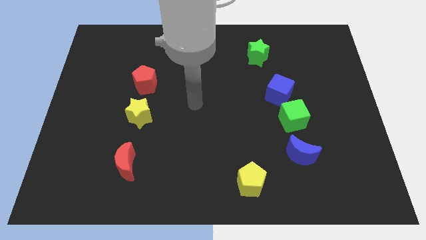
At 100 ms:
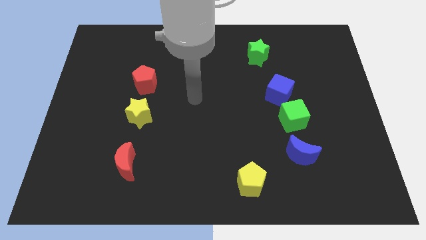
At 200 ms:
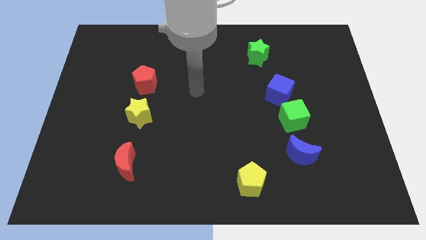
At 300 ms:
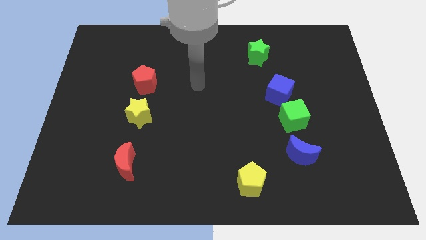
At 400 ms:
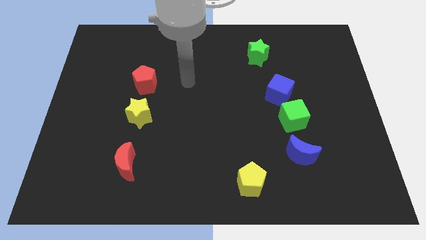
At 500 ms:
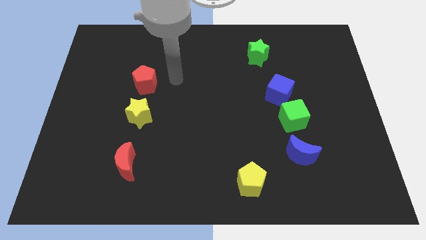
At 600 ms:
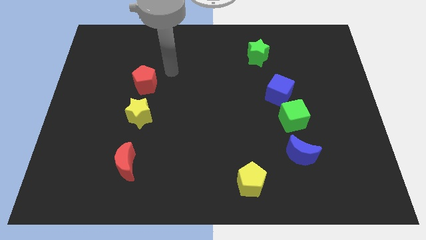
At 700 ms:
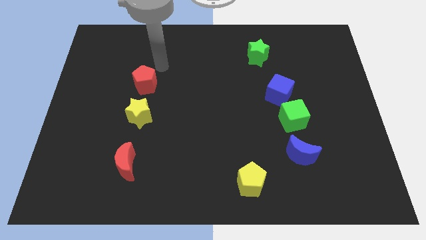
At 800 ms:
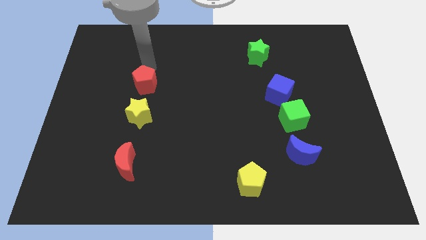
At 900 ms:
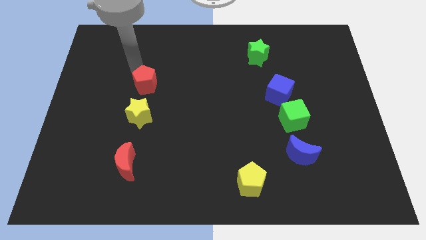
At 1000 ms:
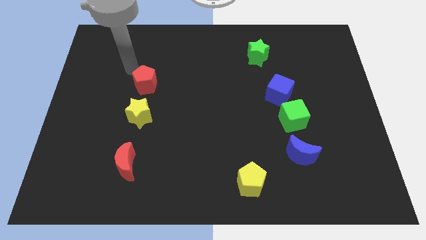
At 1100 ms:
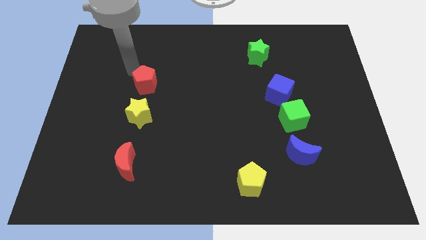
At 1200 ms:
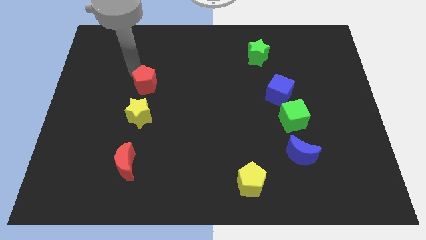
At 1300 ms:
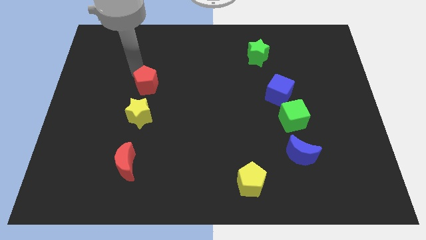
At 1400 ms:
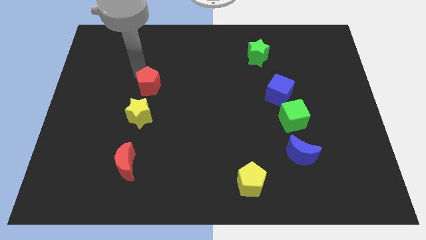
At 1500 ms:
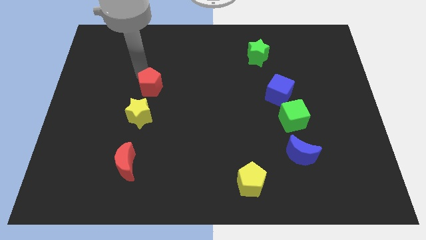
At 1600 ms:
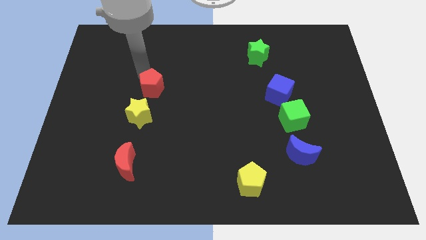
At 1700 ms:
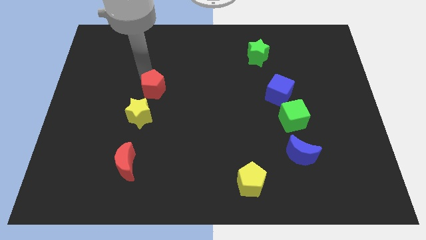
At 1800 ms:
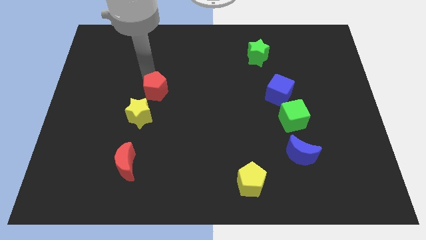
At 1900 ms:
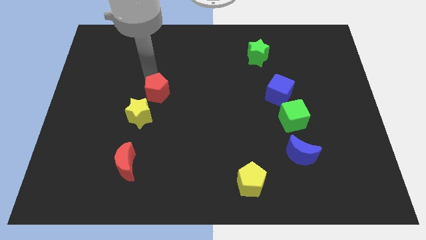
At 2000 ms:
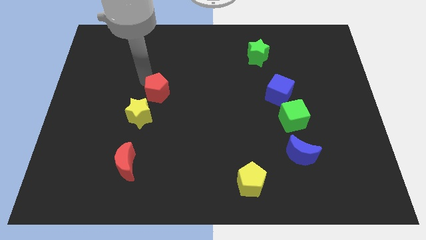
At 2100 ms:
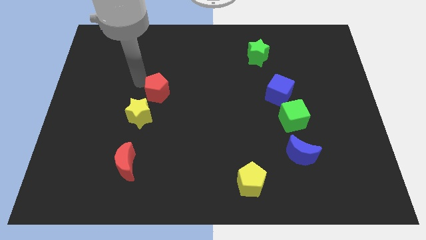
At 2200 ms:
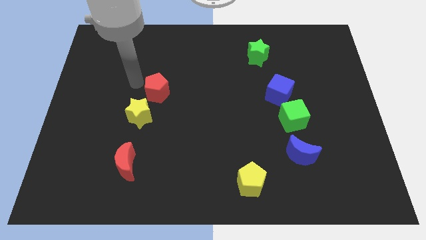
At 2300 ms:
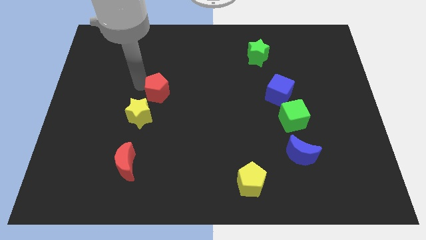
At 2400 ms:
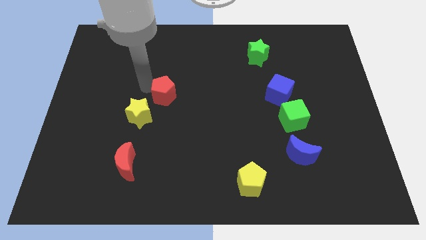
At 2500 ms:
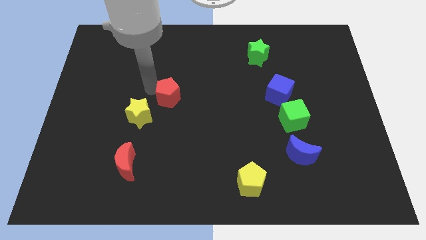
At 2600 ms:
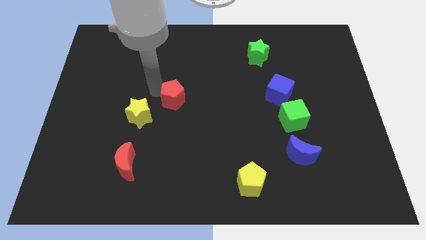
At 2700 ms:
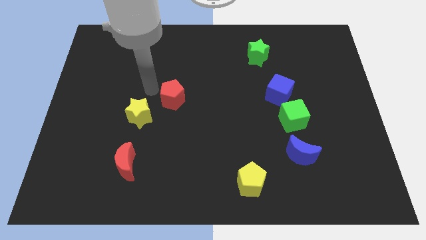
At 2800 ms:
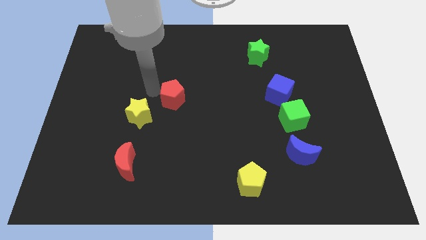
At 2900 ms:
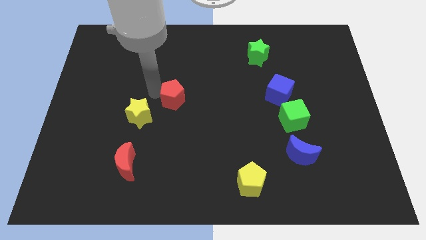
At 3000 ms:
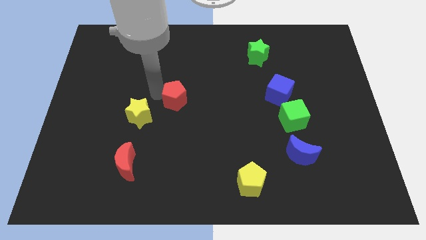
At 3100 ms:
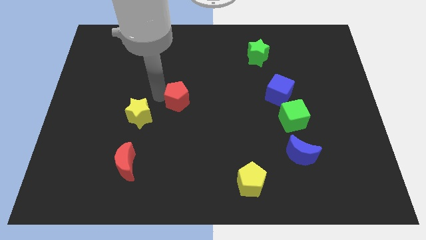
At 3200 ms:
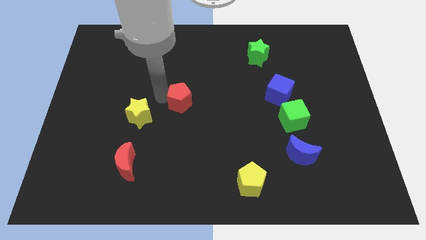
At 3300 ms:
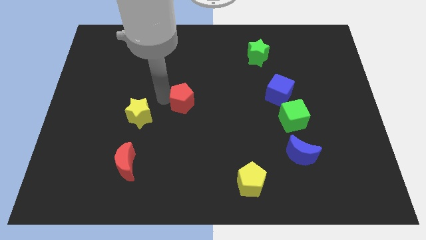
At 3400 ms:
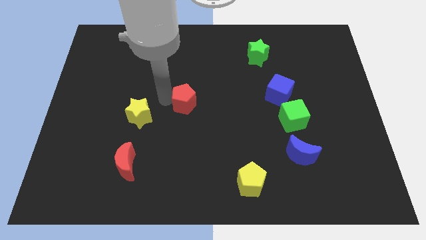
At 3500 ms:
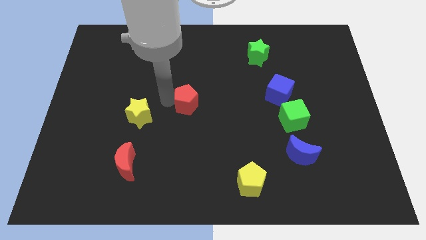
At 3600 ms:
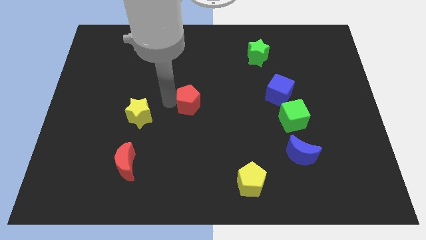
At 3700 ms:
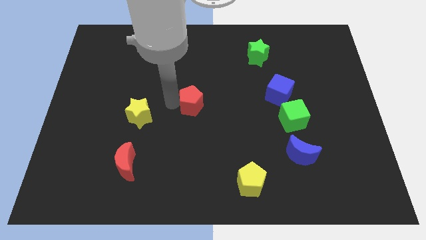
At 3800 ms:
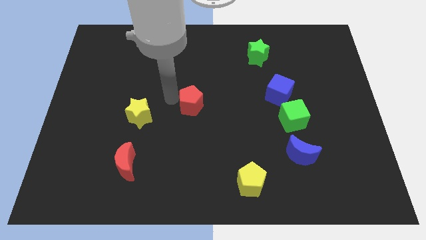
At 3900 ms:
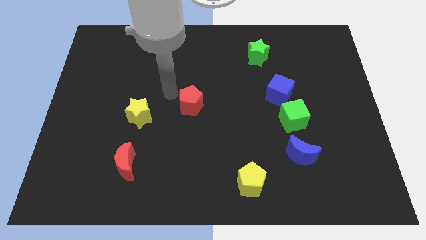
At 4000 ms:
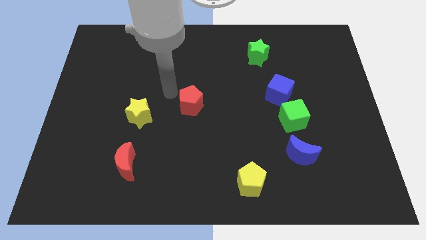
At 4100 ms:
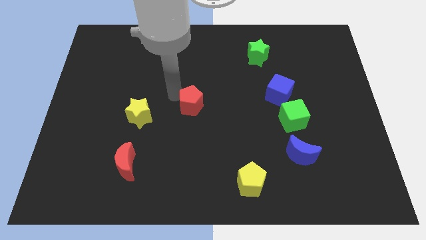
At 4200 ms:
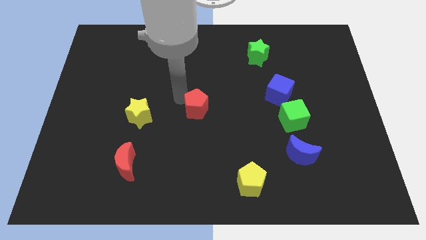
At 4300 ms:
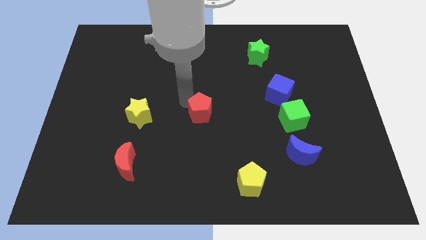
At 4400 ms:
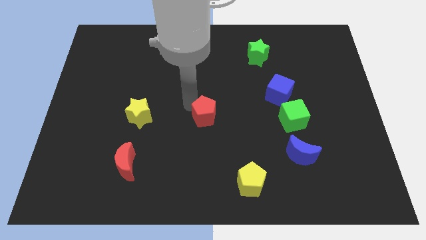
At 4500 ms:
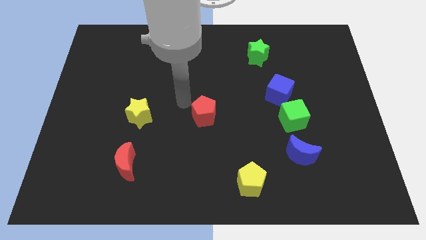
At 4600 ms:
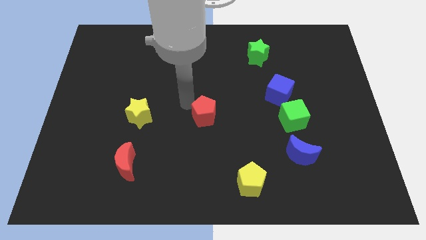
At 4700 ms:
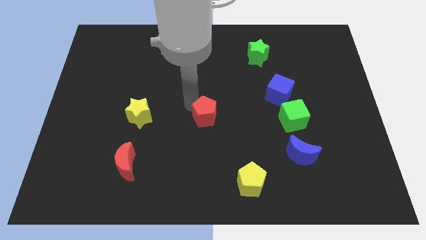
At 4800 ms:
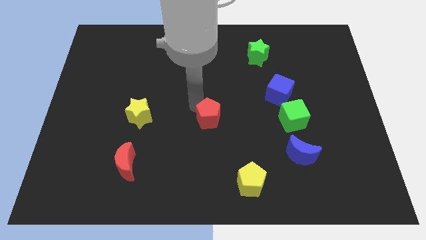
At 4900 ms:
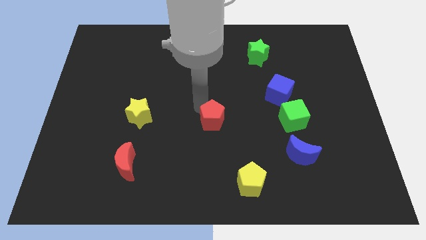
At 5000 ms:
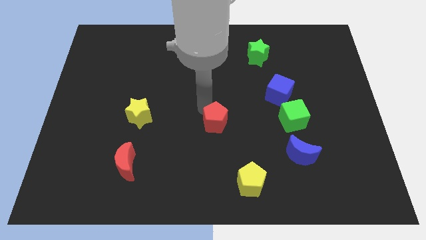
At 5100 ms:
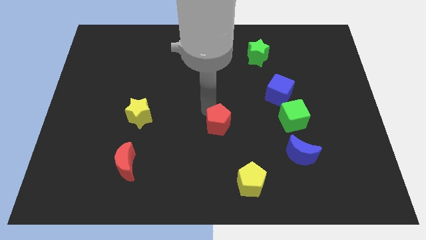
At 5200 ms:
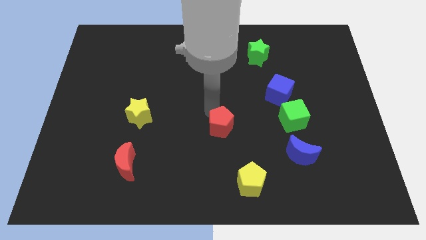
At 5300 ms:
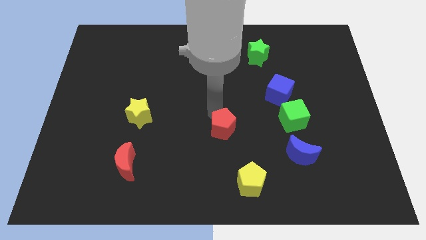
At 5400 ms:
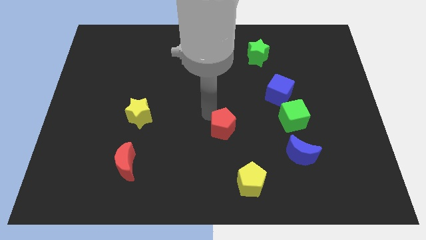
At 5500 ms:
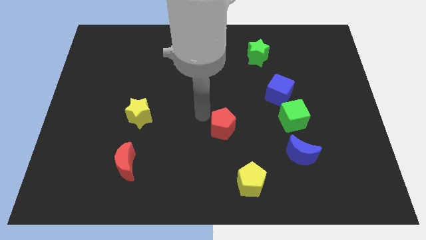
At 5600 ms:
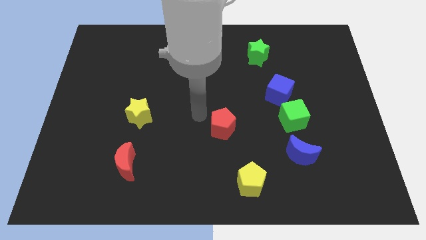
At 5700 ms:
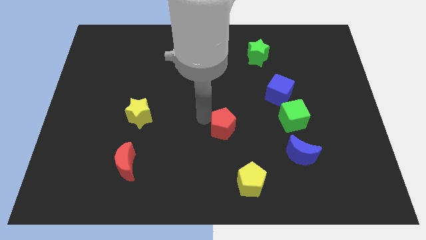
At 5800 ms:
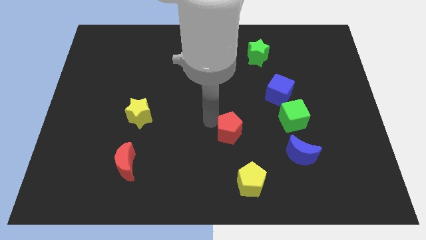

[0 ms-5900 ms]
slide the red pentagon to the top side of the yellow pentagon

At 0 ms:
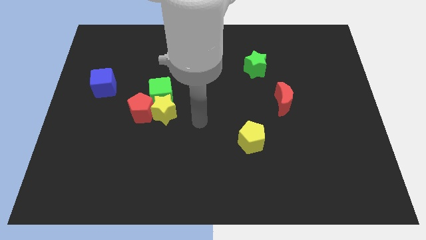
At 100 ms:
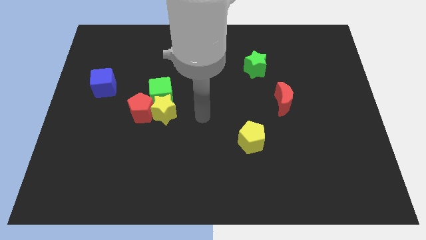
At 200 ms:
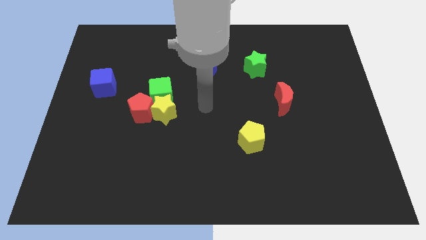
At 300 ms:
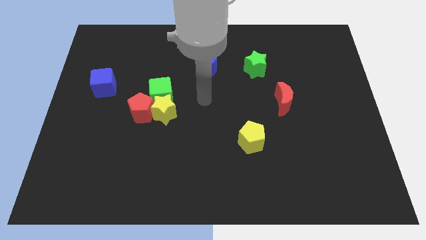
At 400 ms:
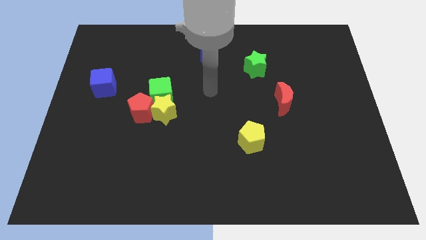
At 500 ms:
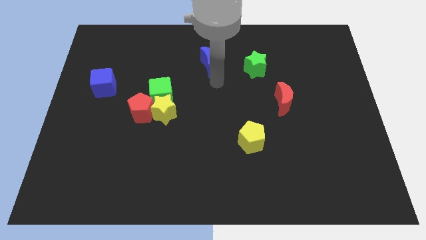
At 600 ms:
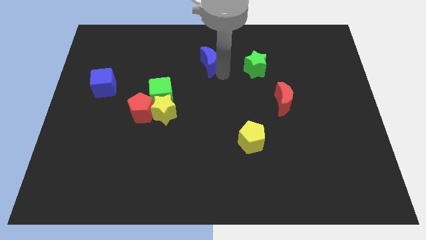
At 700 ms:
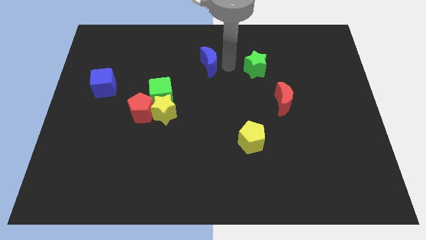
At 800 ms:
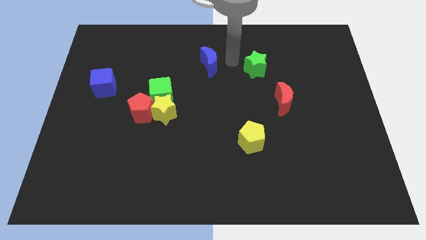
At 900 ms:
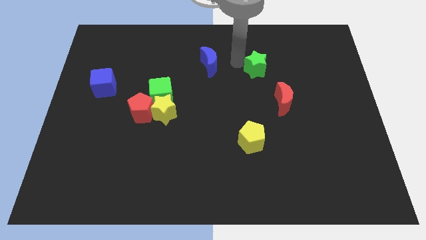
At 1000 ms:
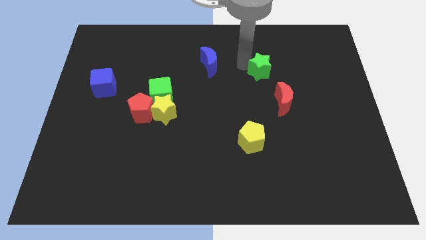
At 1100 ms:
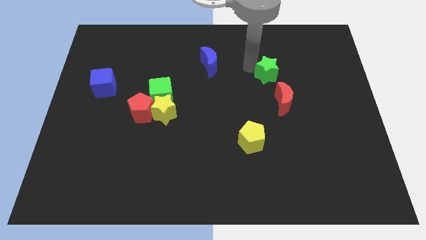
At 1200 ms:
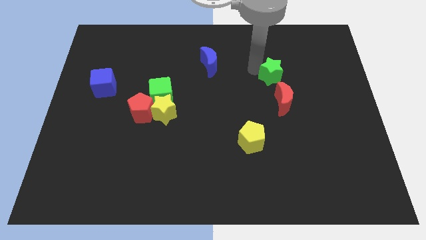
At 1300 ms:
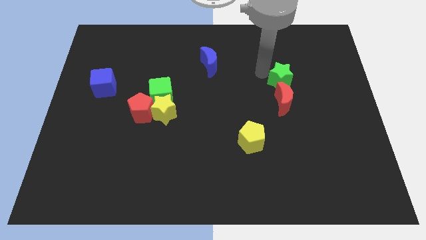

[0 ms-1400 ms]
put the green star to the top right of the red moon
